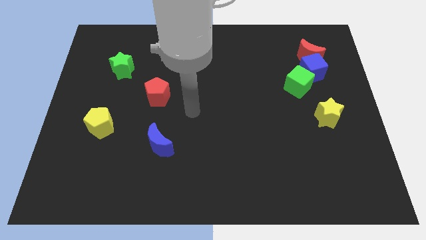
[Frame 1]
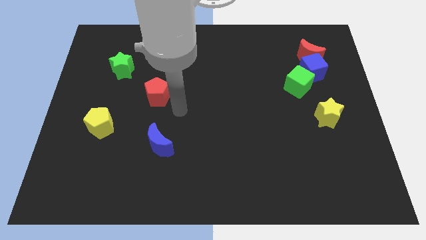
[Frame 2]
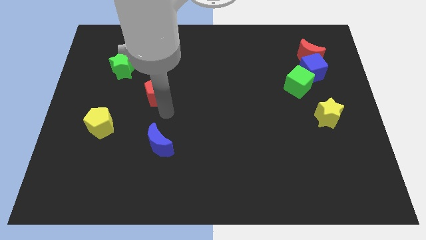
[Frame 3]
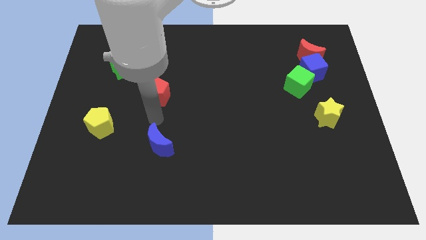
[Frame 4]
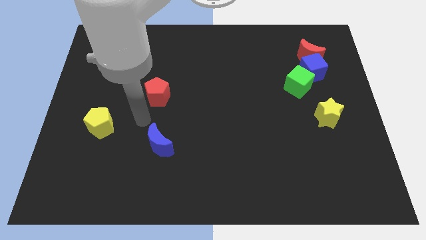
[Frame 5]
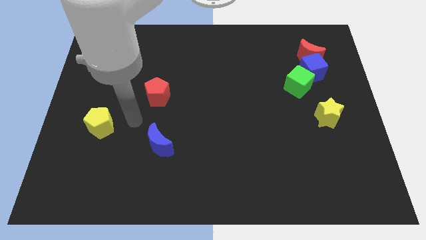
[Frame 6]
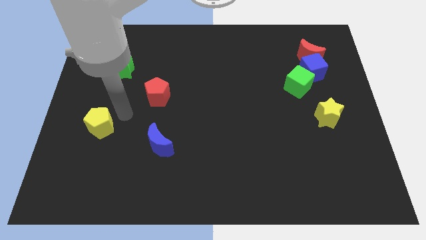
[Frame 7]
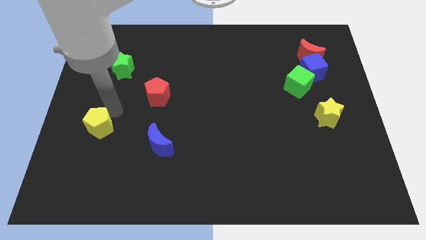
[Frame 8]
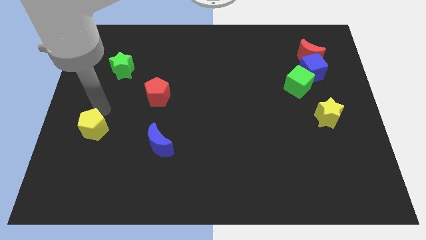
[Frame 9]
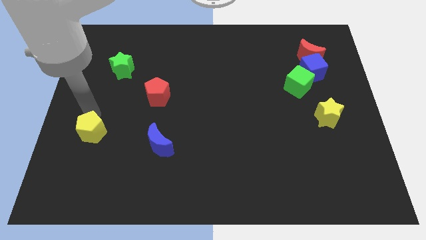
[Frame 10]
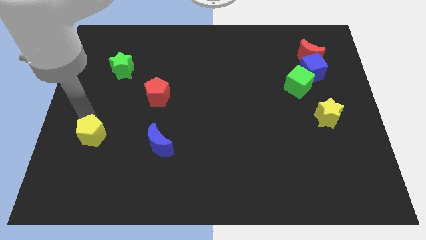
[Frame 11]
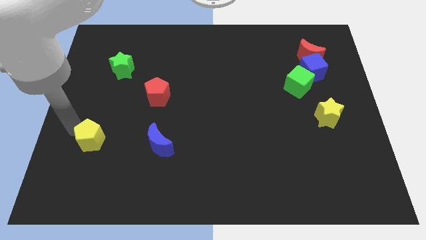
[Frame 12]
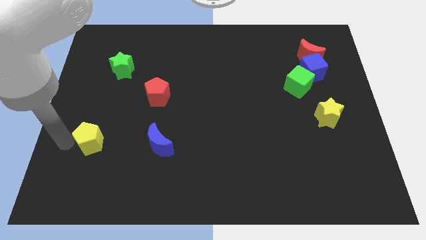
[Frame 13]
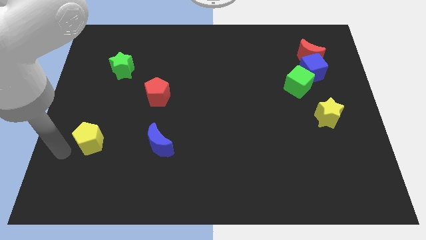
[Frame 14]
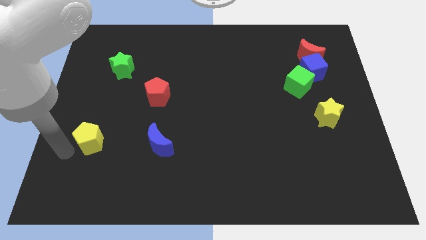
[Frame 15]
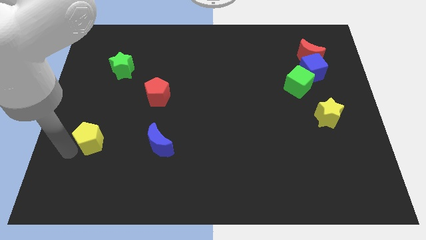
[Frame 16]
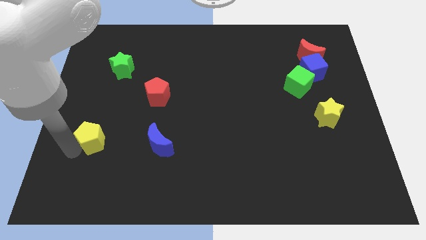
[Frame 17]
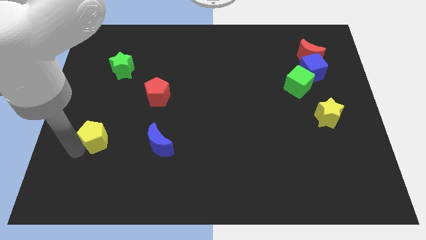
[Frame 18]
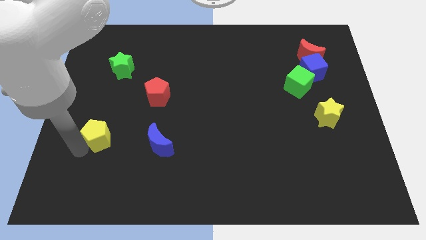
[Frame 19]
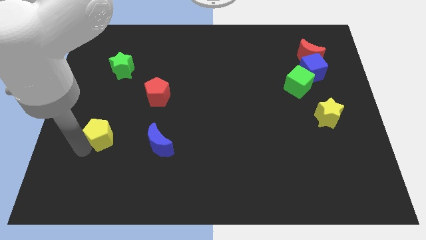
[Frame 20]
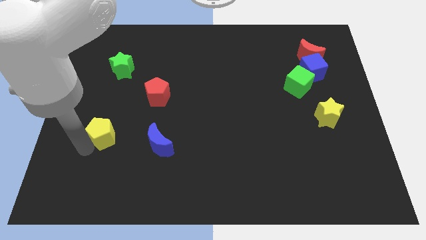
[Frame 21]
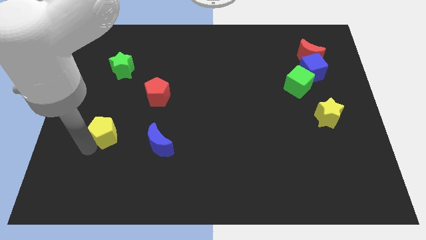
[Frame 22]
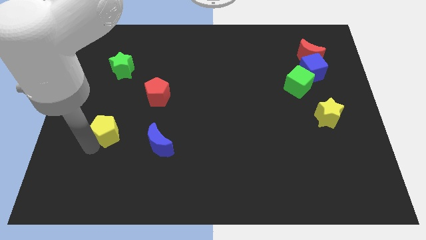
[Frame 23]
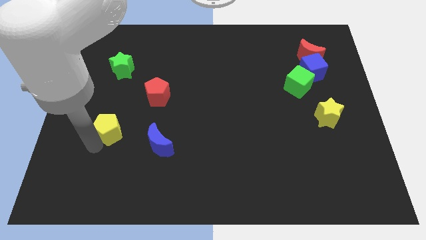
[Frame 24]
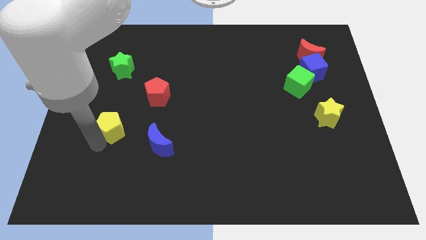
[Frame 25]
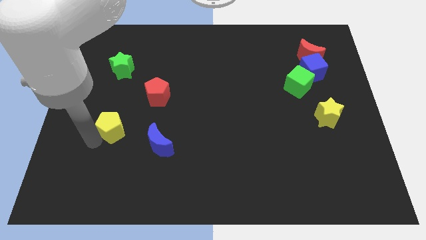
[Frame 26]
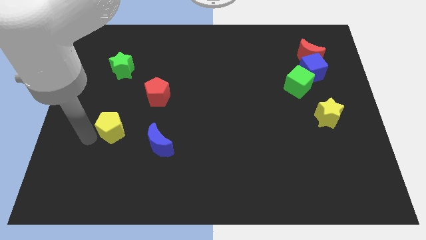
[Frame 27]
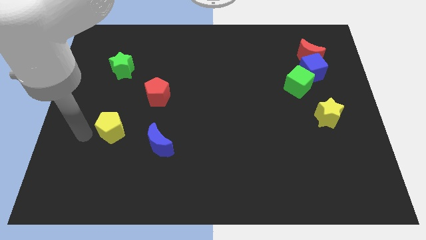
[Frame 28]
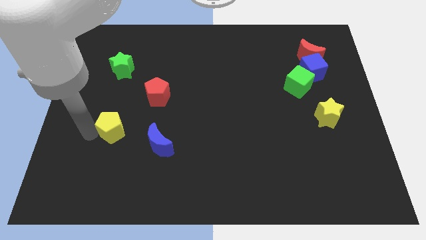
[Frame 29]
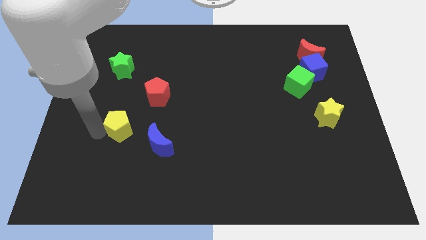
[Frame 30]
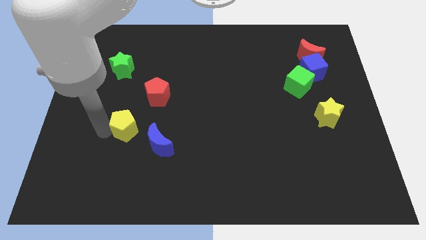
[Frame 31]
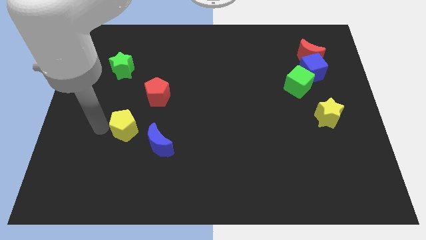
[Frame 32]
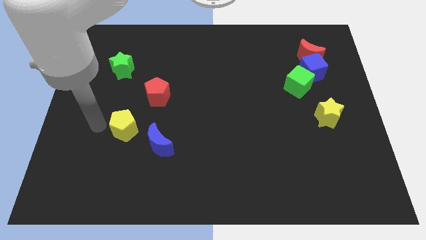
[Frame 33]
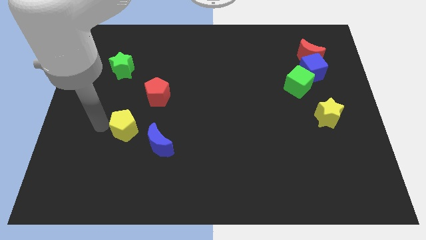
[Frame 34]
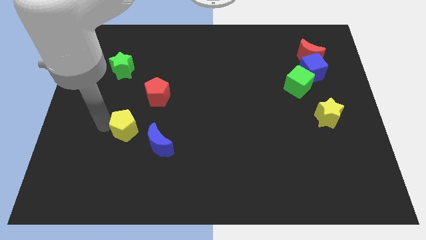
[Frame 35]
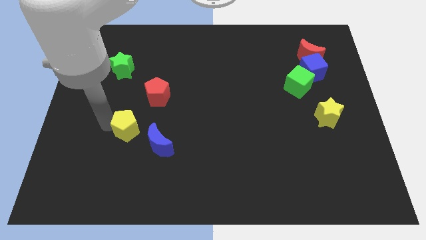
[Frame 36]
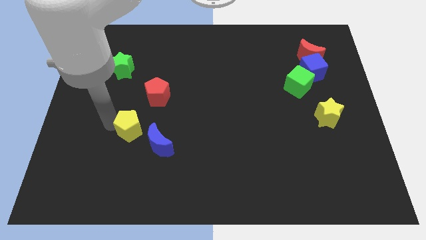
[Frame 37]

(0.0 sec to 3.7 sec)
push the yellow pentagon to the right a bit

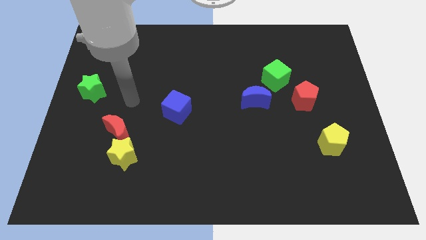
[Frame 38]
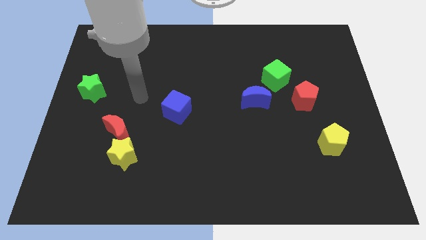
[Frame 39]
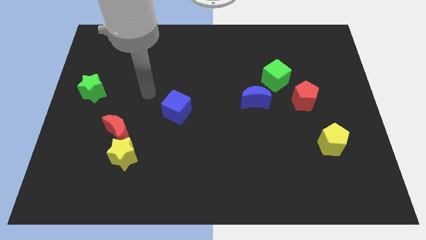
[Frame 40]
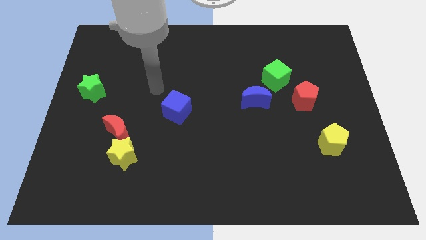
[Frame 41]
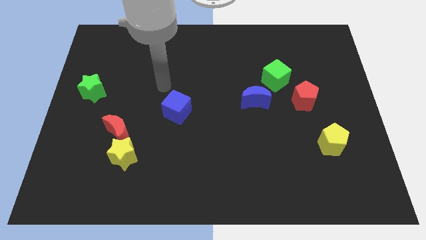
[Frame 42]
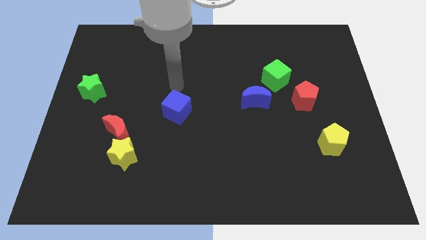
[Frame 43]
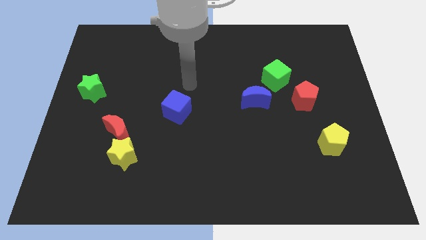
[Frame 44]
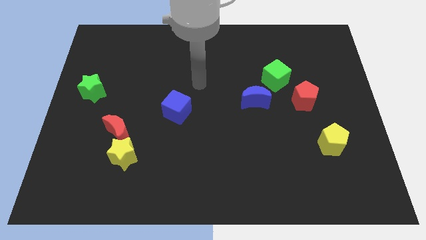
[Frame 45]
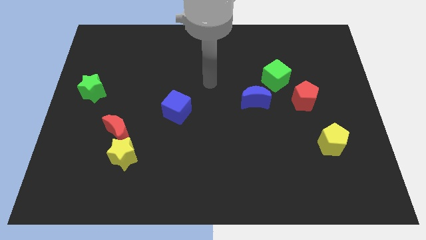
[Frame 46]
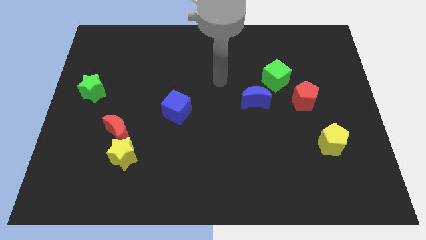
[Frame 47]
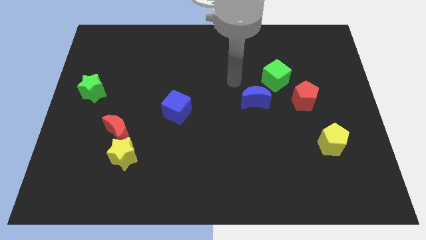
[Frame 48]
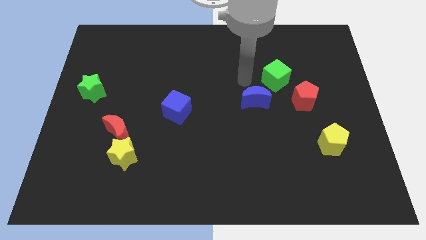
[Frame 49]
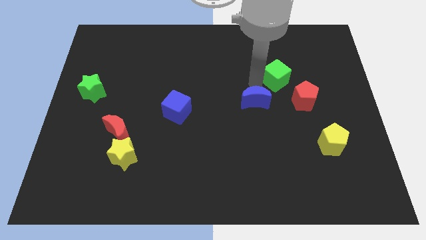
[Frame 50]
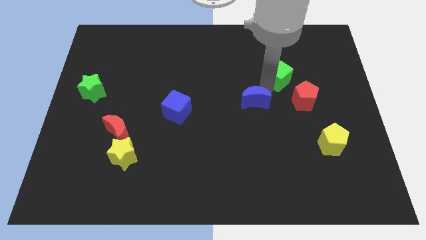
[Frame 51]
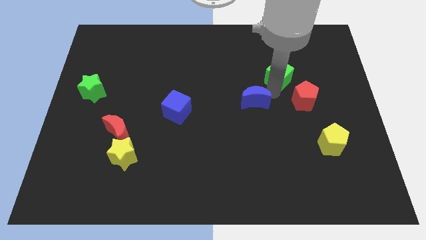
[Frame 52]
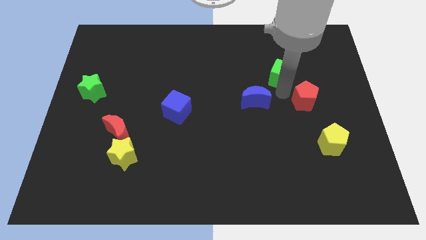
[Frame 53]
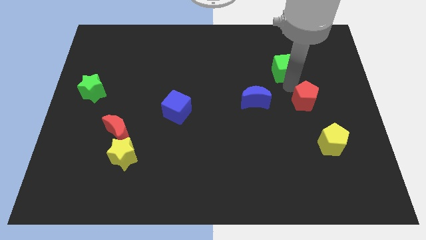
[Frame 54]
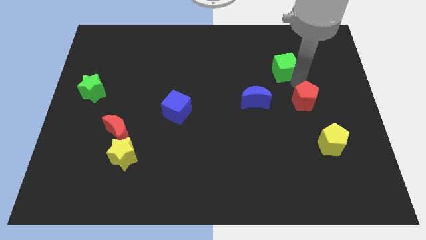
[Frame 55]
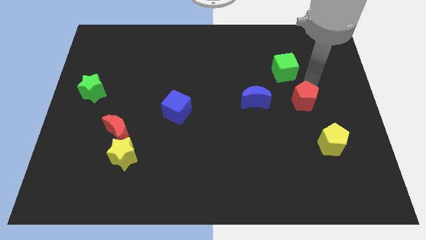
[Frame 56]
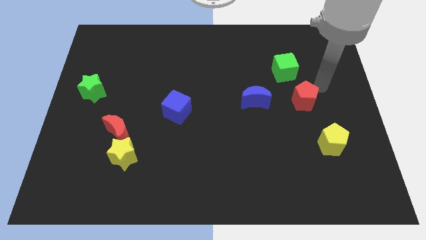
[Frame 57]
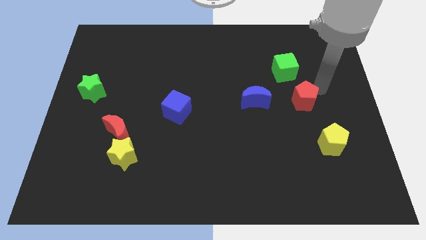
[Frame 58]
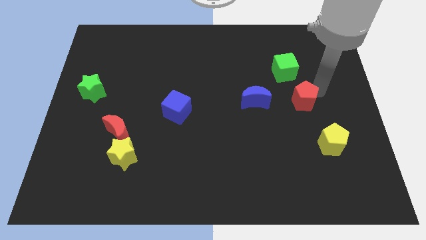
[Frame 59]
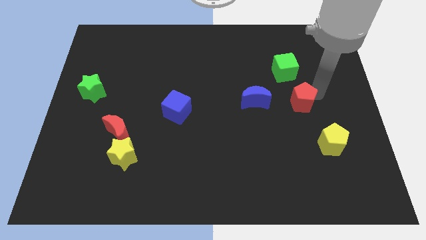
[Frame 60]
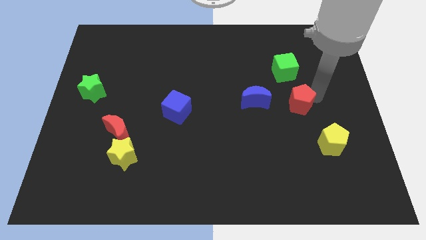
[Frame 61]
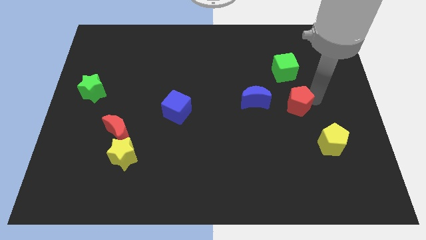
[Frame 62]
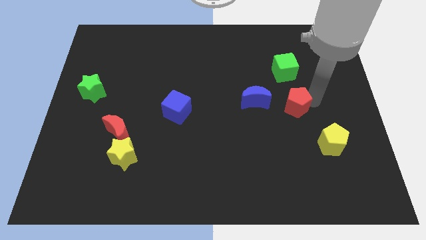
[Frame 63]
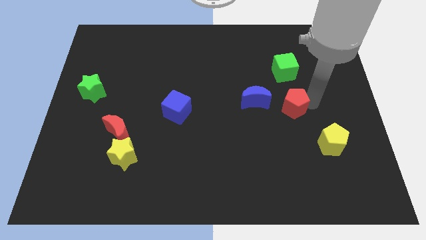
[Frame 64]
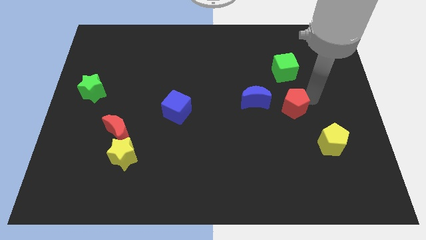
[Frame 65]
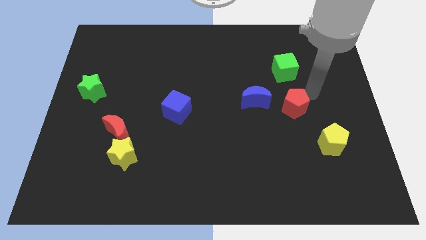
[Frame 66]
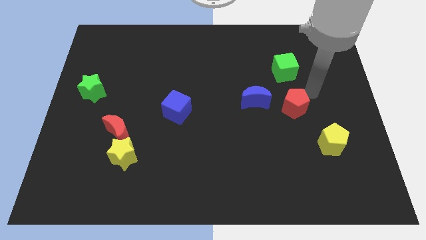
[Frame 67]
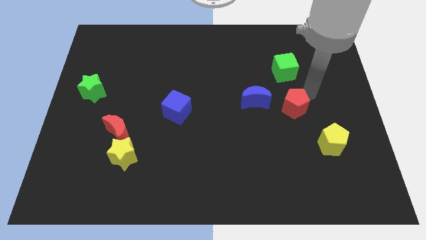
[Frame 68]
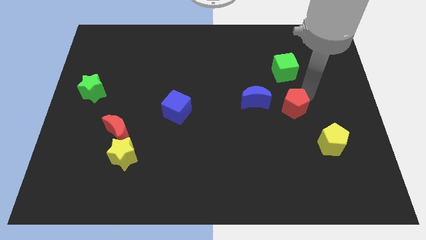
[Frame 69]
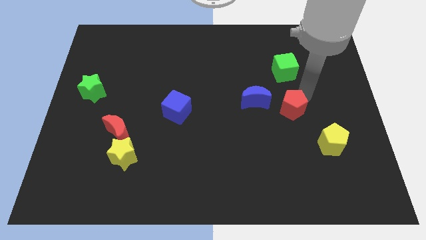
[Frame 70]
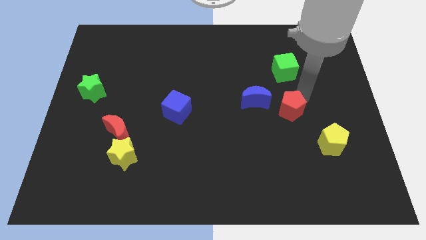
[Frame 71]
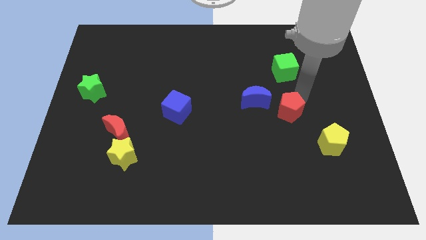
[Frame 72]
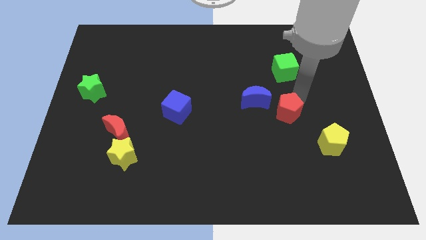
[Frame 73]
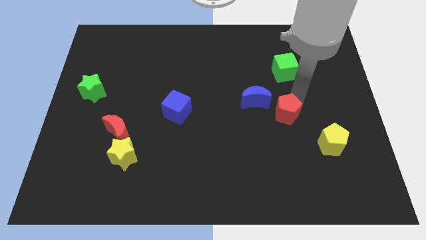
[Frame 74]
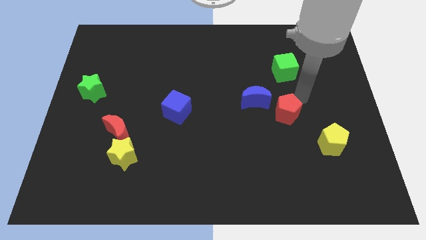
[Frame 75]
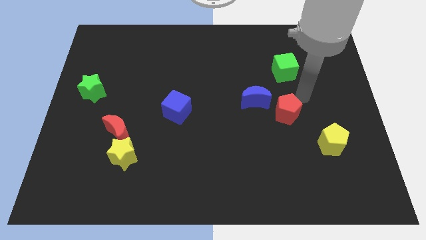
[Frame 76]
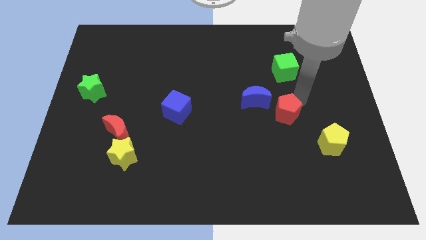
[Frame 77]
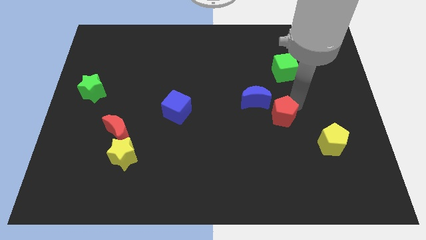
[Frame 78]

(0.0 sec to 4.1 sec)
slightly push the red pentagon diagonally down and to the left

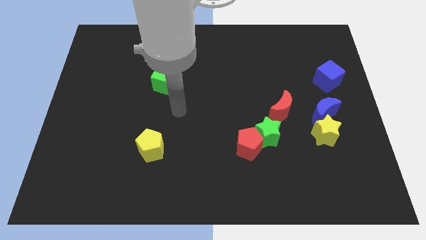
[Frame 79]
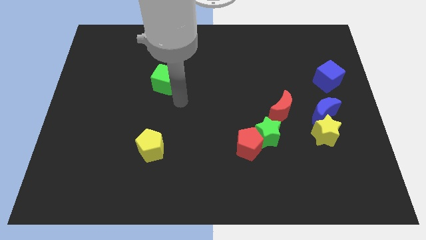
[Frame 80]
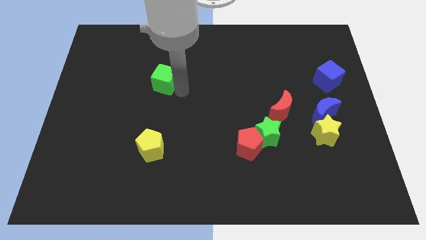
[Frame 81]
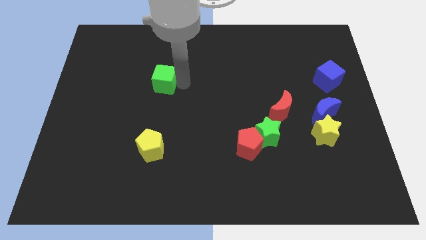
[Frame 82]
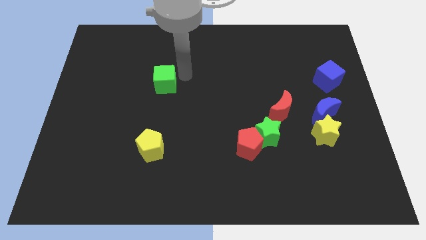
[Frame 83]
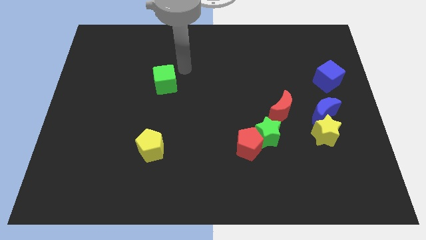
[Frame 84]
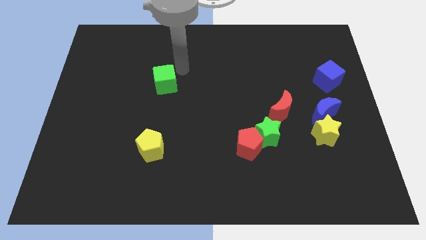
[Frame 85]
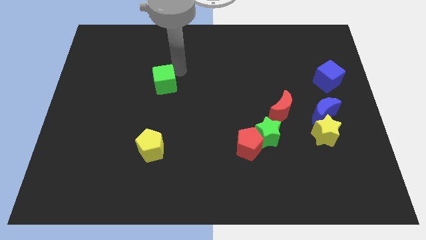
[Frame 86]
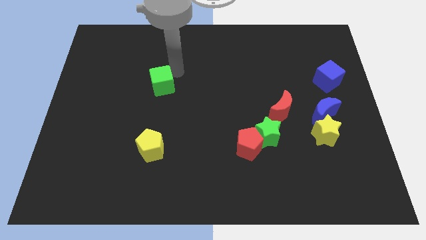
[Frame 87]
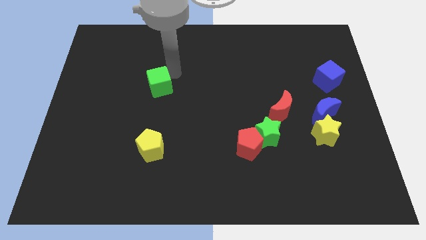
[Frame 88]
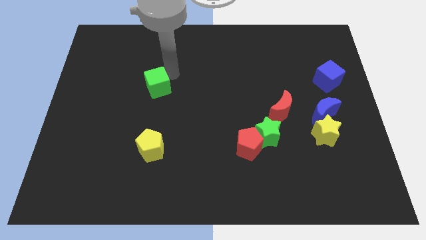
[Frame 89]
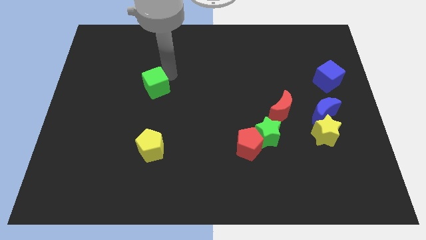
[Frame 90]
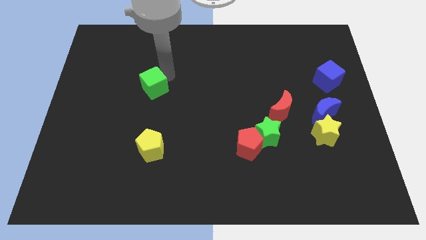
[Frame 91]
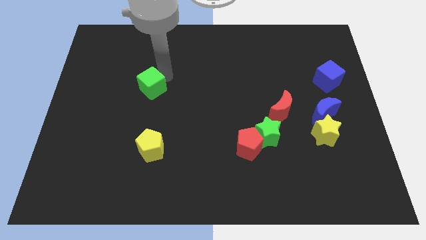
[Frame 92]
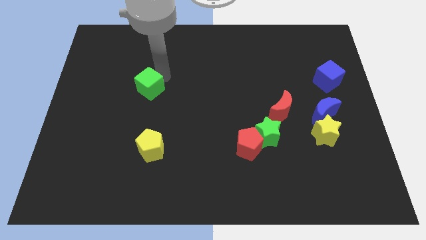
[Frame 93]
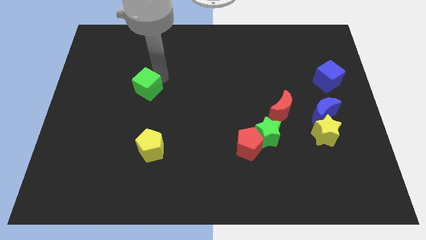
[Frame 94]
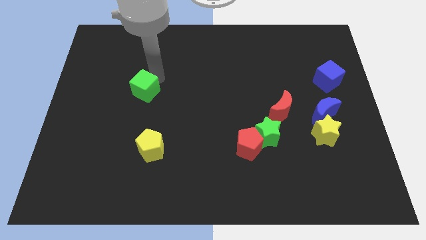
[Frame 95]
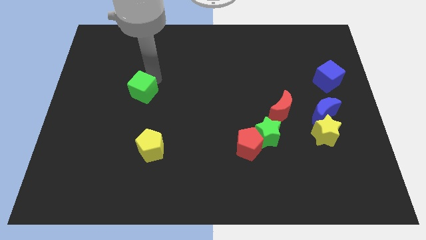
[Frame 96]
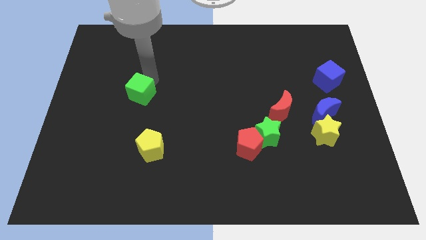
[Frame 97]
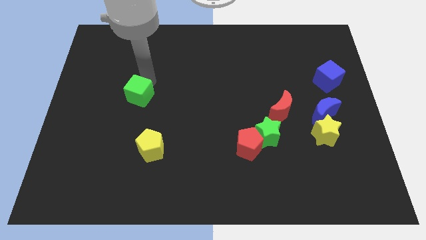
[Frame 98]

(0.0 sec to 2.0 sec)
slightly slide the green cube down and then to the left
